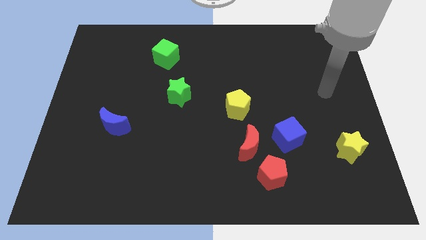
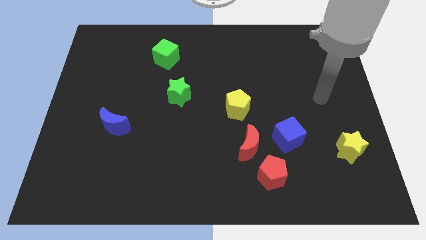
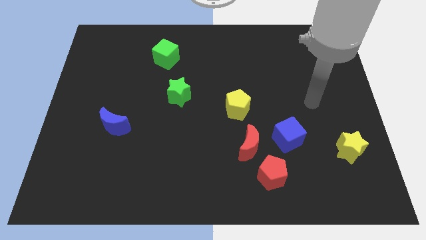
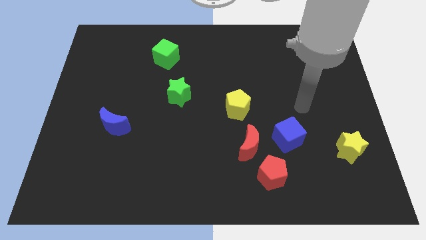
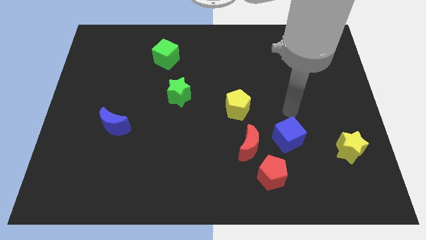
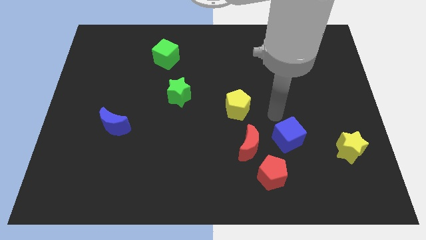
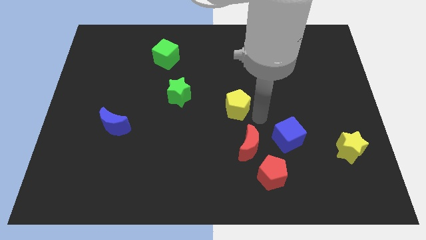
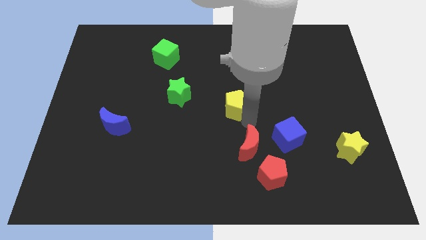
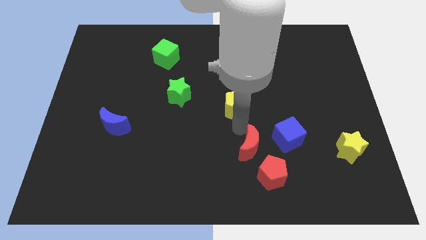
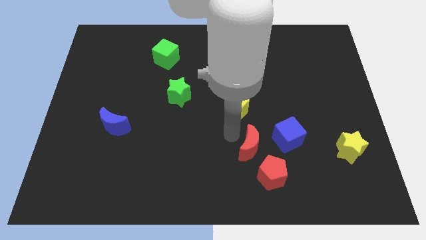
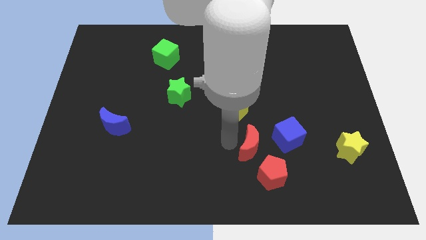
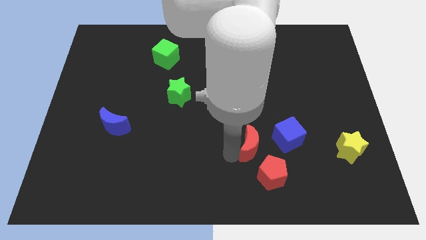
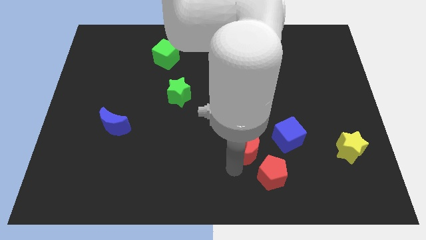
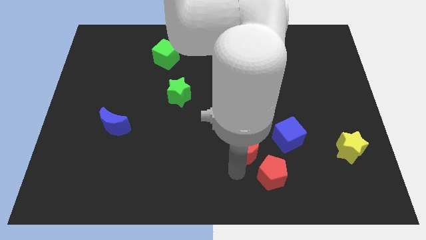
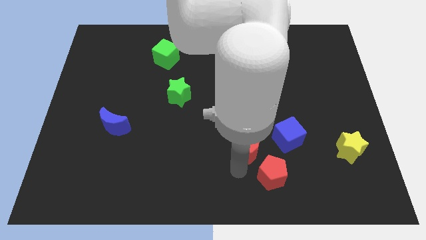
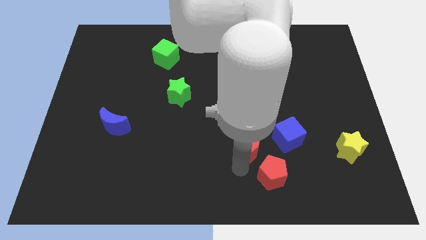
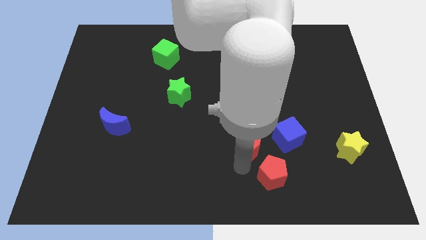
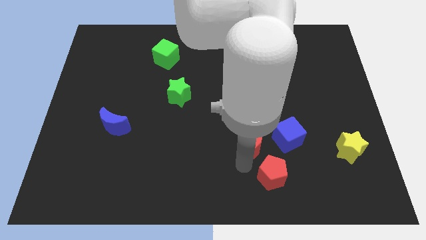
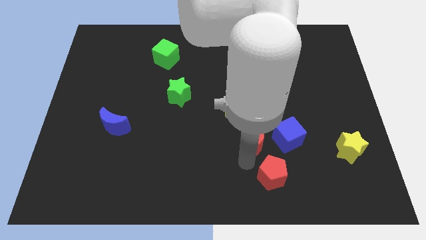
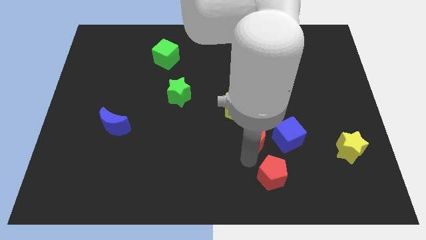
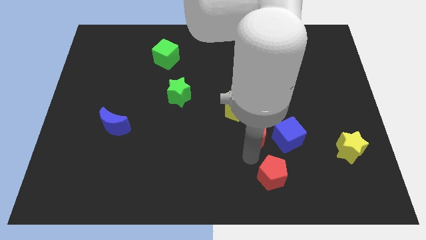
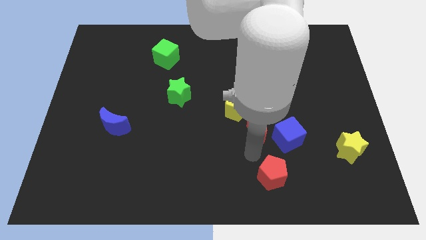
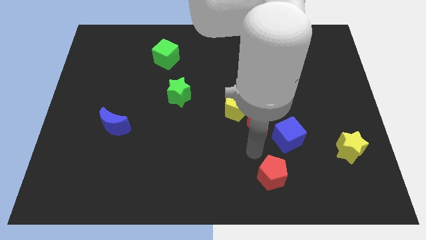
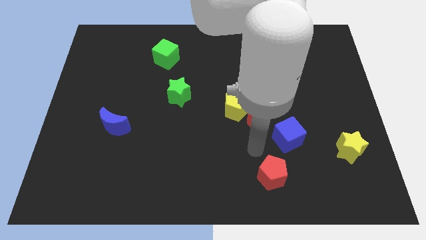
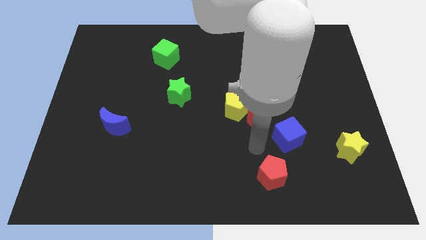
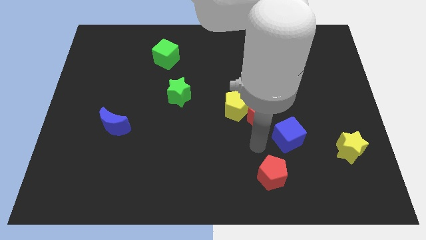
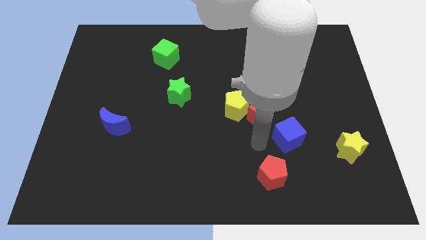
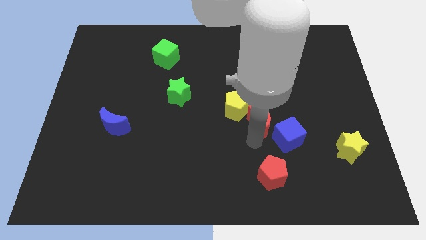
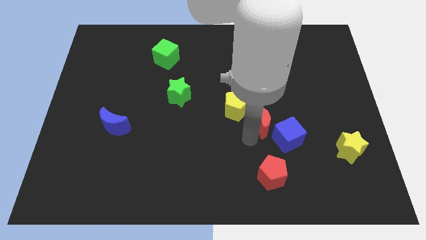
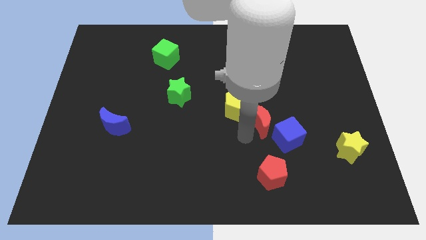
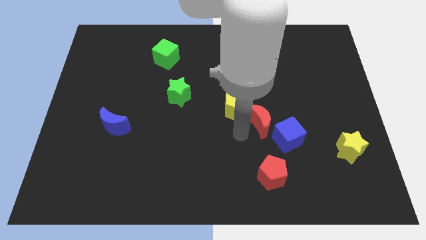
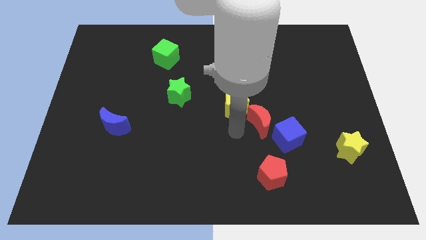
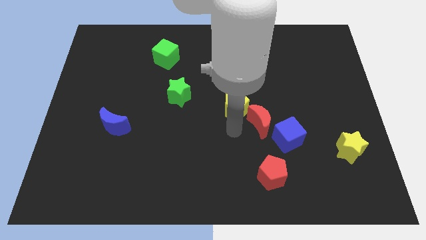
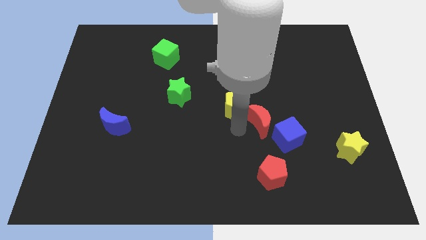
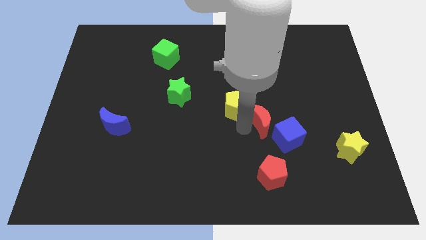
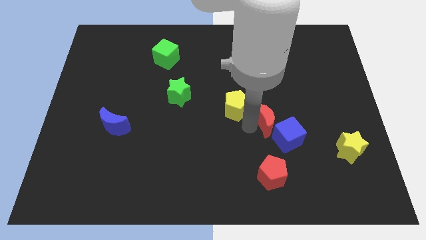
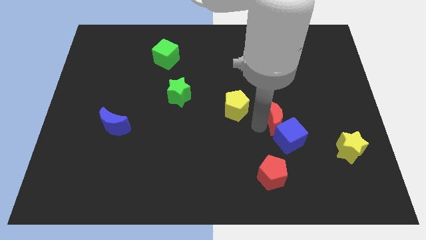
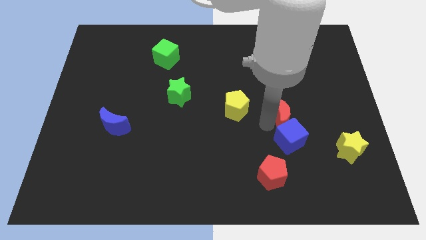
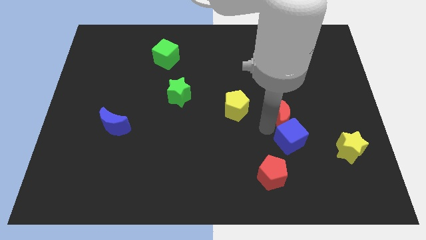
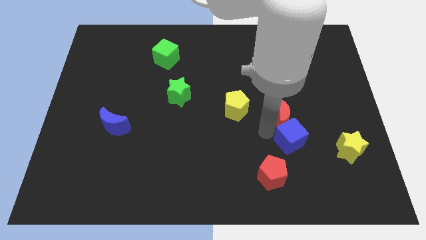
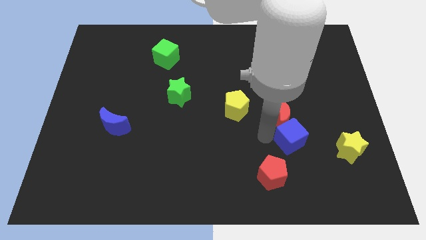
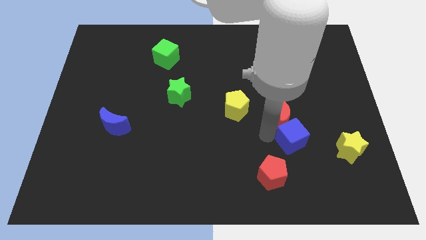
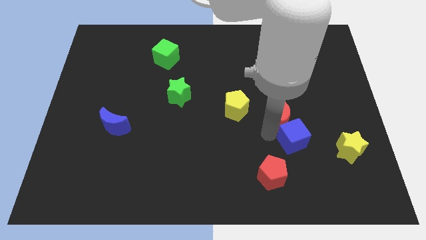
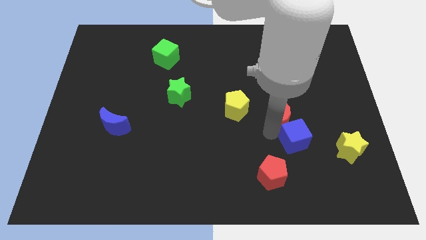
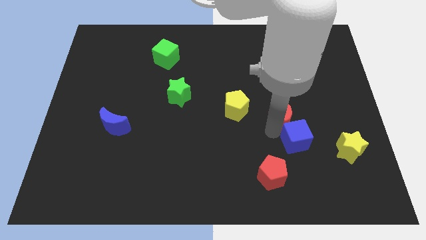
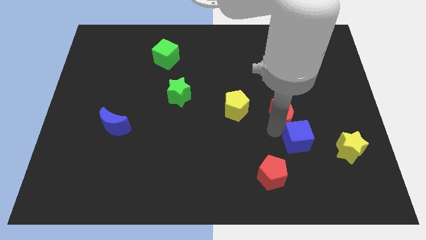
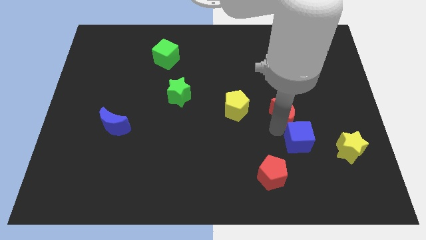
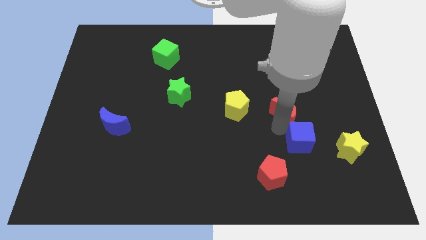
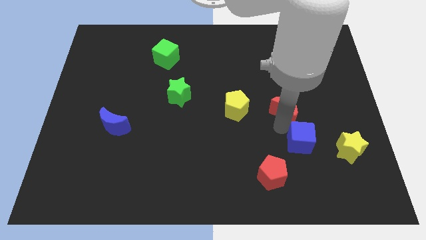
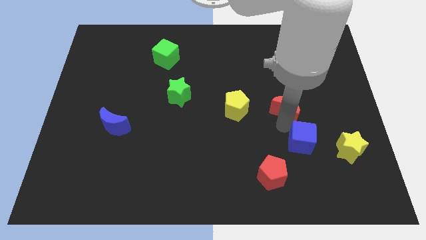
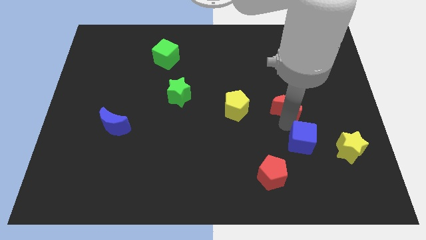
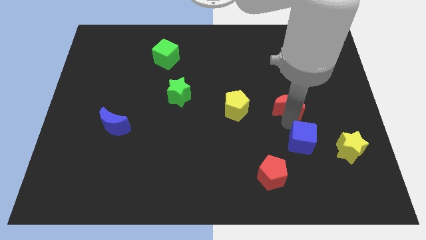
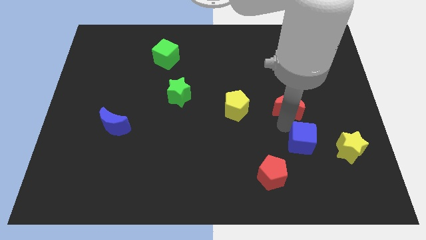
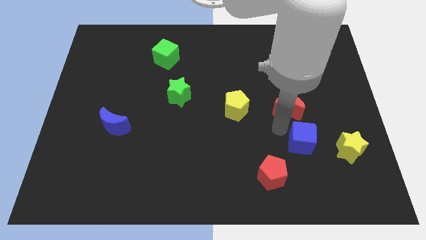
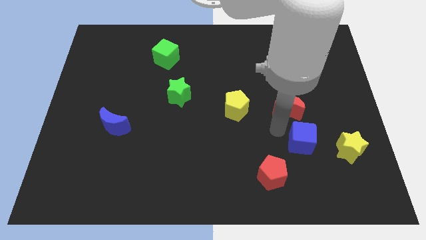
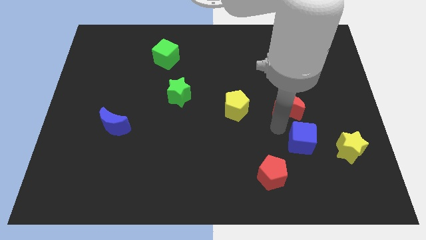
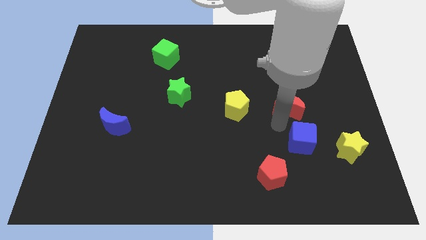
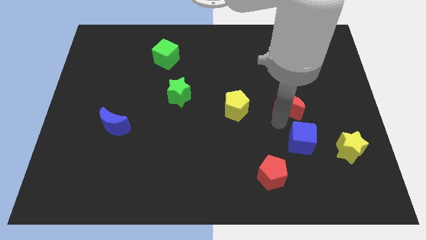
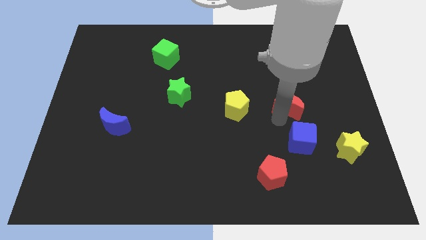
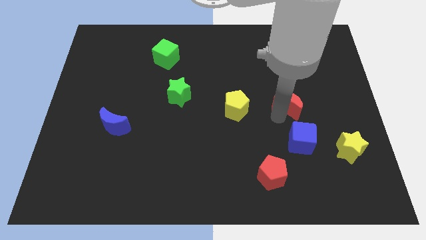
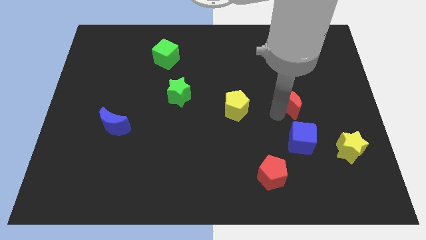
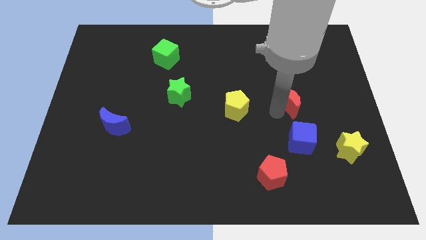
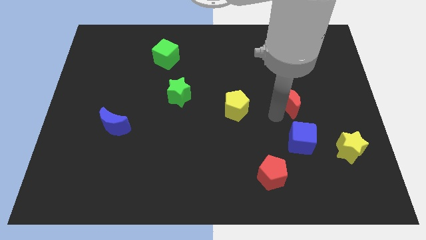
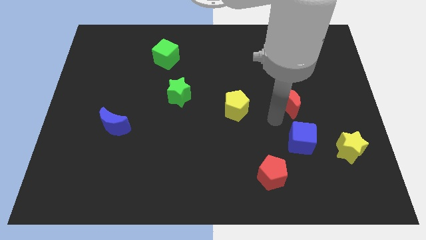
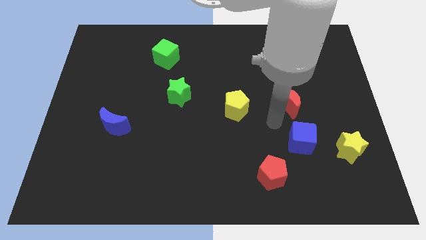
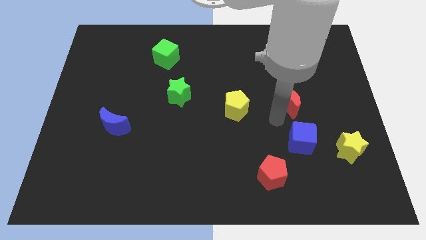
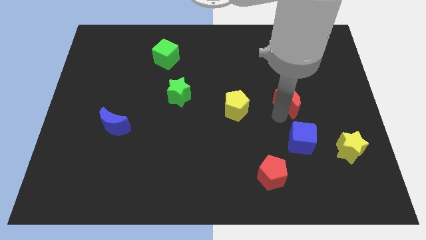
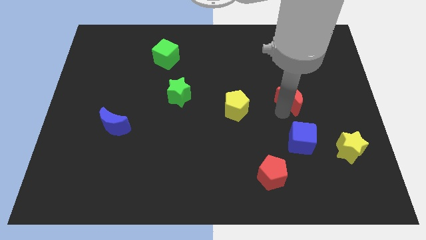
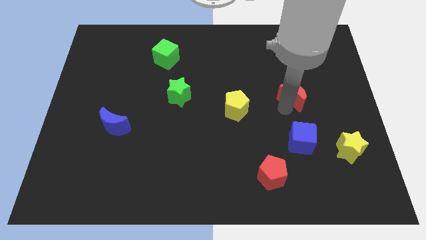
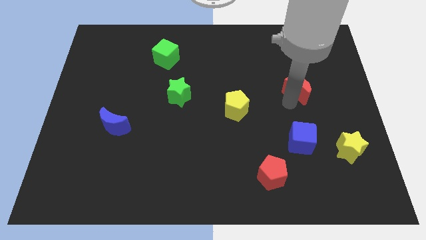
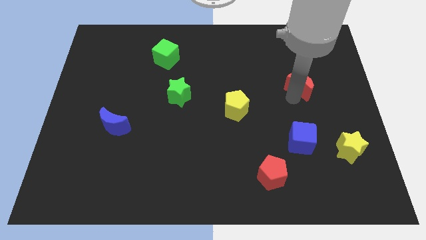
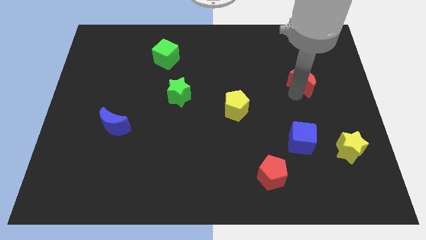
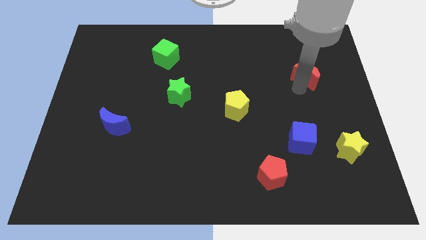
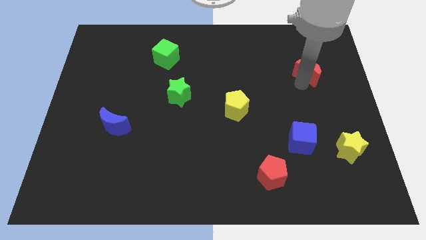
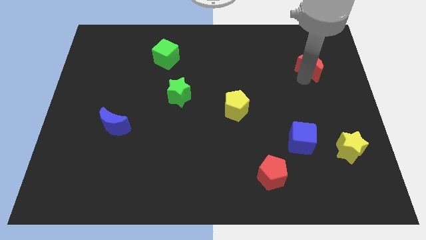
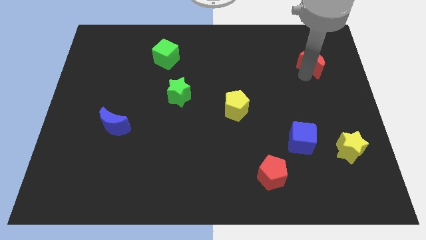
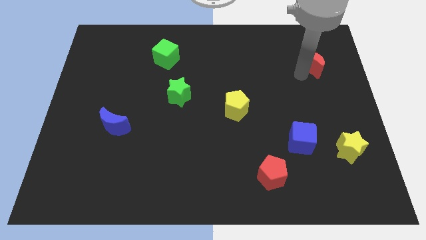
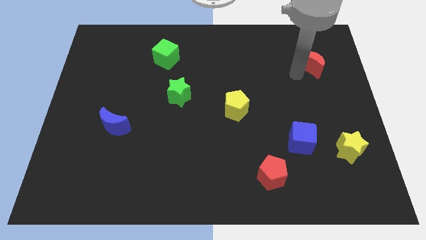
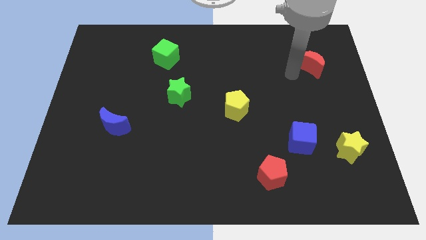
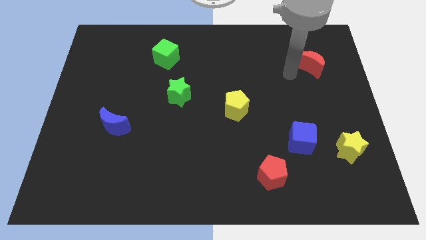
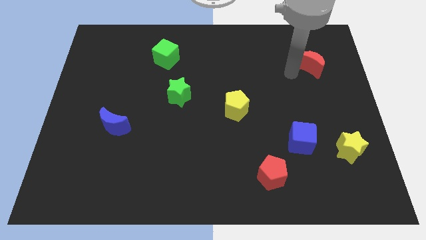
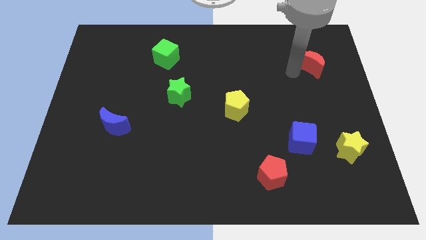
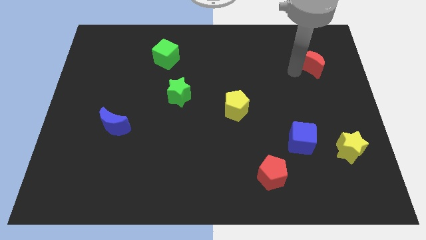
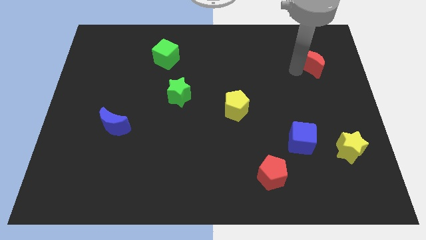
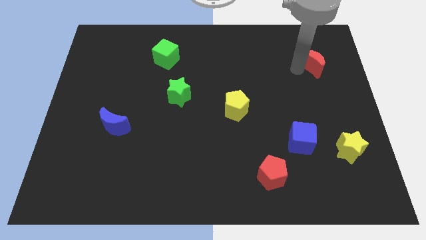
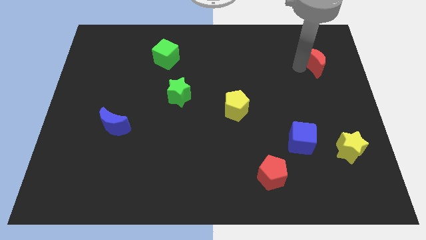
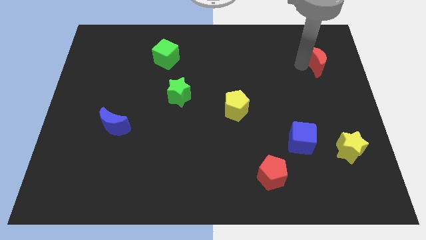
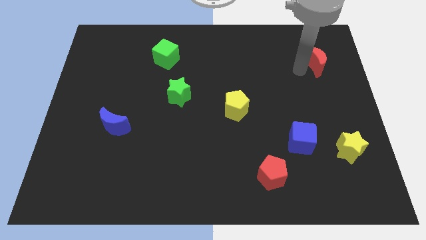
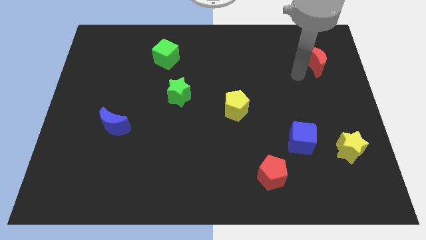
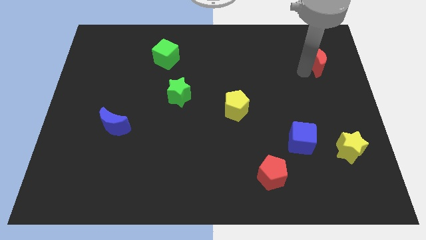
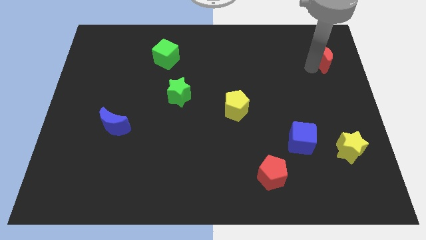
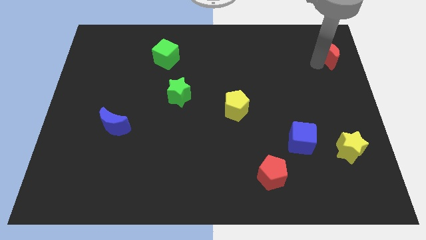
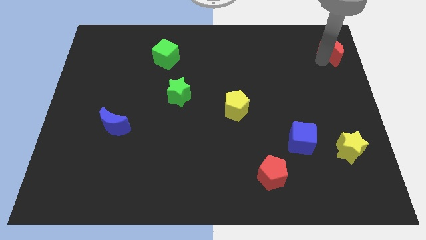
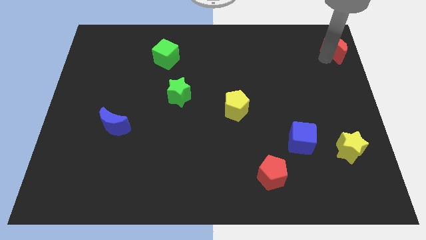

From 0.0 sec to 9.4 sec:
slide the red moon to the top right
